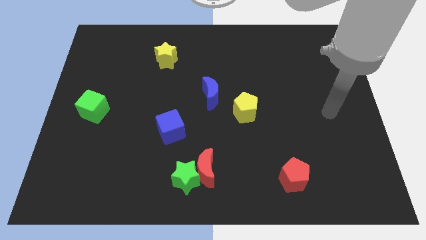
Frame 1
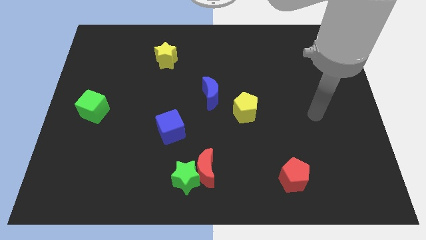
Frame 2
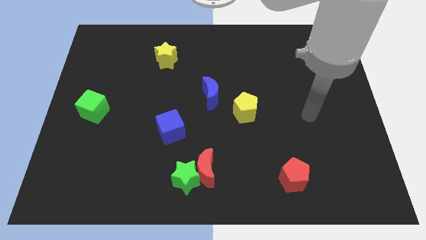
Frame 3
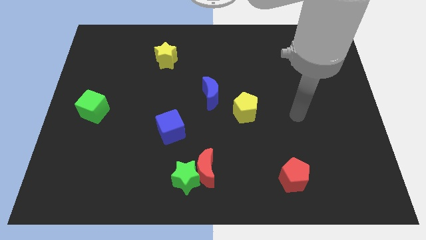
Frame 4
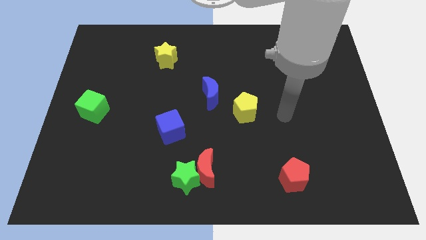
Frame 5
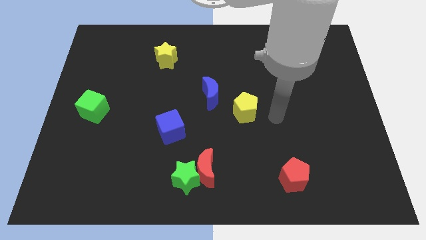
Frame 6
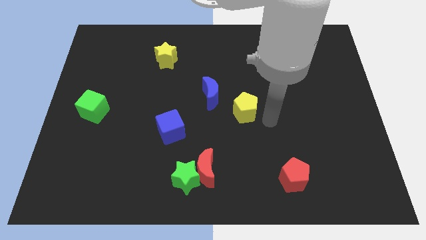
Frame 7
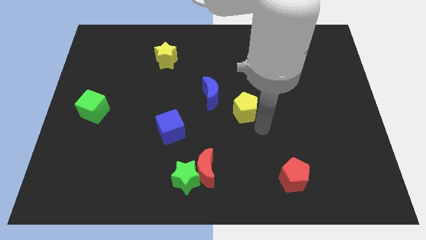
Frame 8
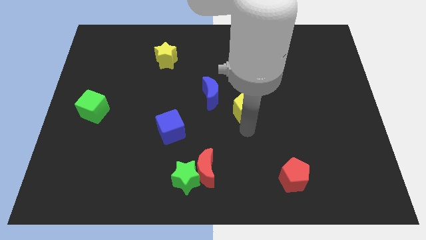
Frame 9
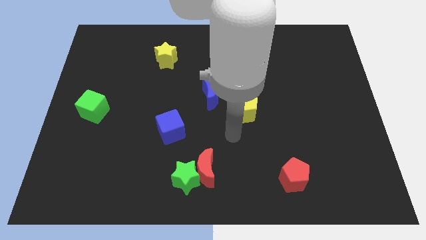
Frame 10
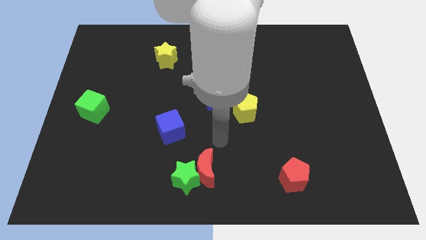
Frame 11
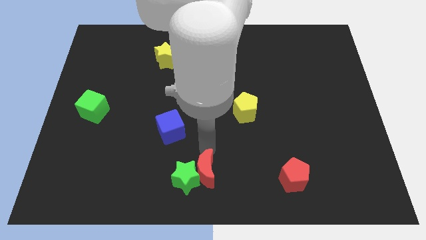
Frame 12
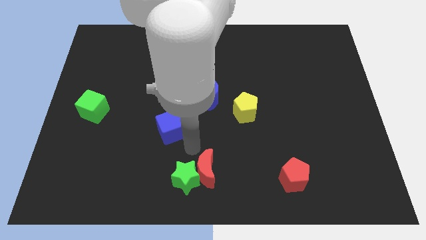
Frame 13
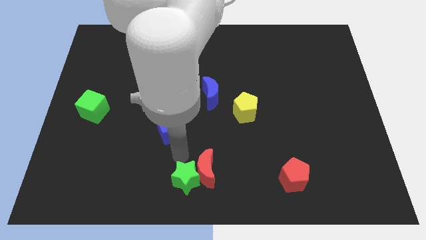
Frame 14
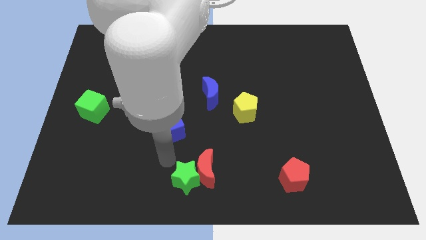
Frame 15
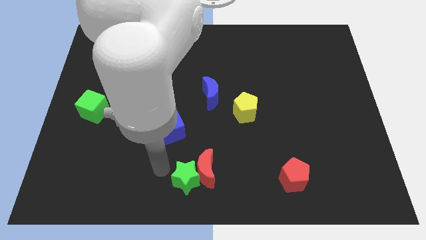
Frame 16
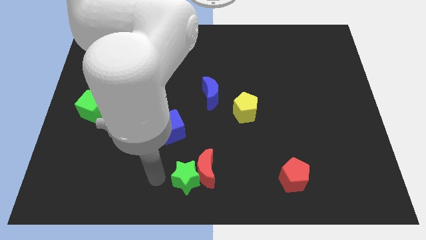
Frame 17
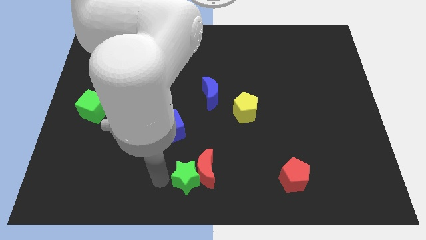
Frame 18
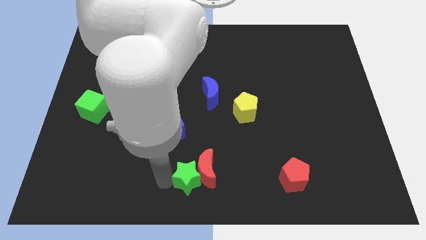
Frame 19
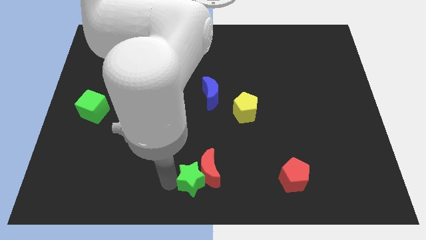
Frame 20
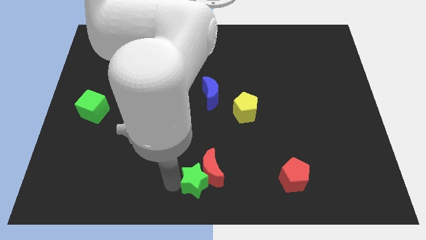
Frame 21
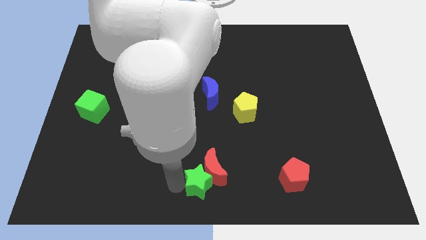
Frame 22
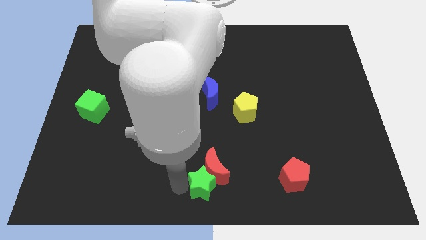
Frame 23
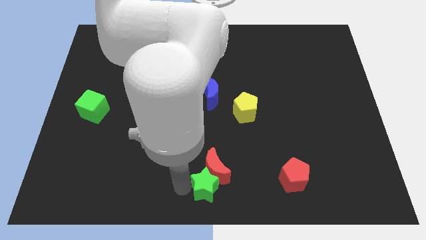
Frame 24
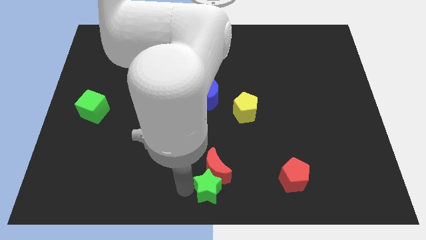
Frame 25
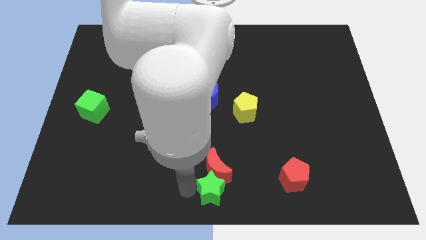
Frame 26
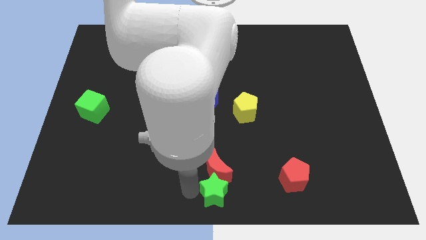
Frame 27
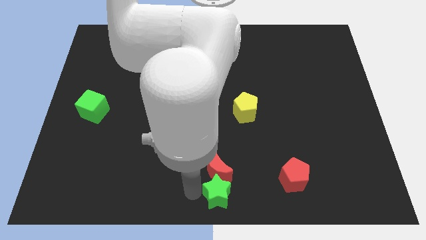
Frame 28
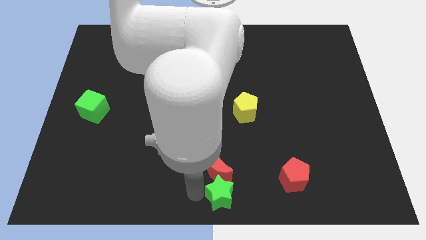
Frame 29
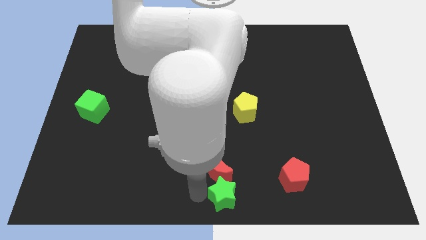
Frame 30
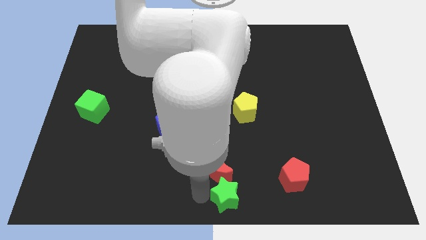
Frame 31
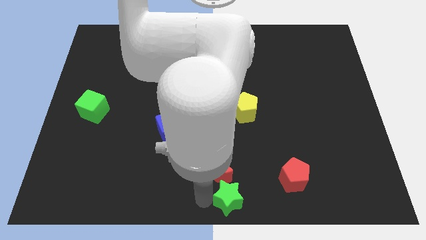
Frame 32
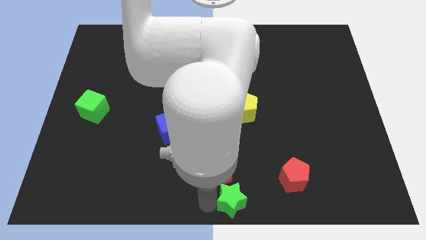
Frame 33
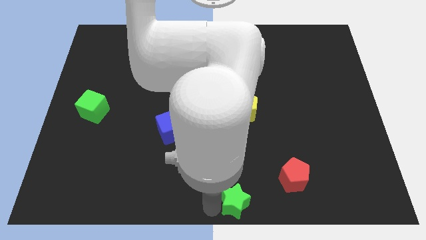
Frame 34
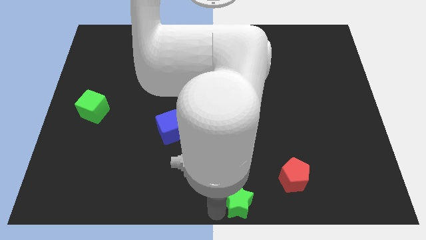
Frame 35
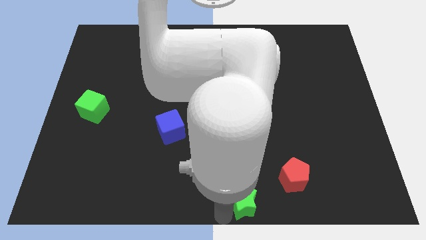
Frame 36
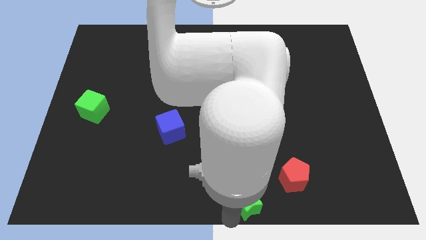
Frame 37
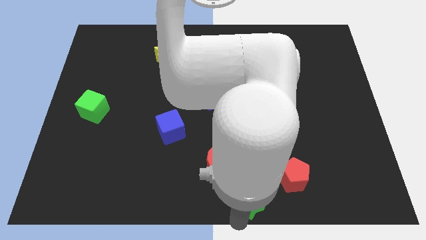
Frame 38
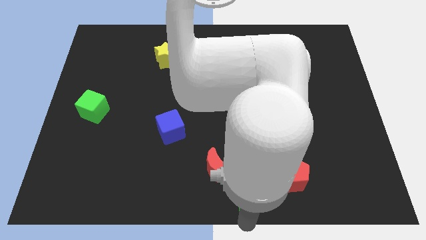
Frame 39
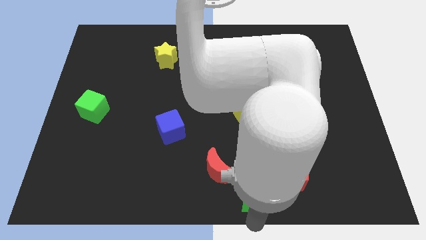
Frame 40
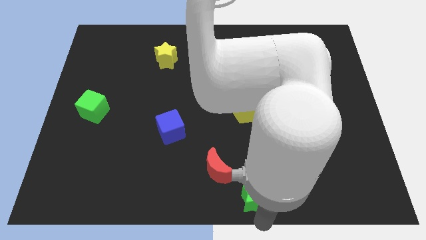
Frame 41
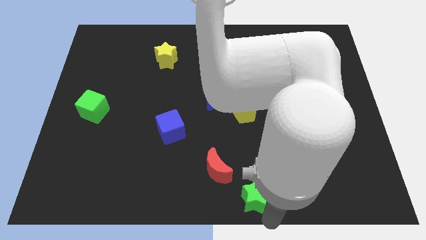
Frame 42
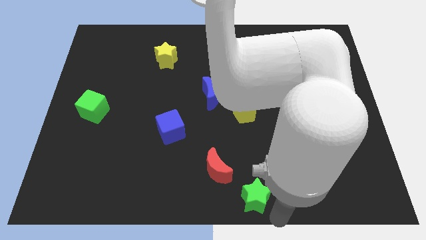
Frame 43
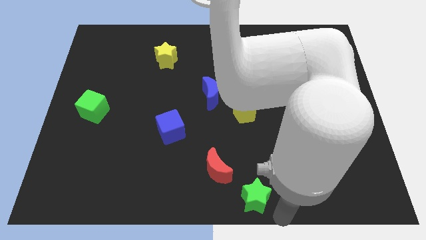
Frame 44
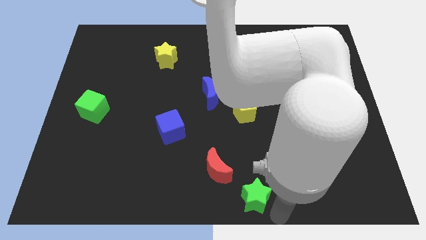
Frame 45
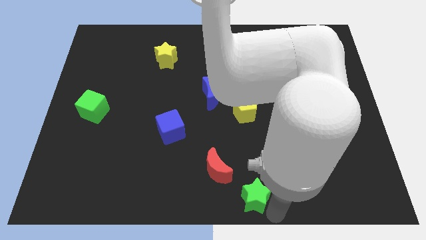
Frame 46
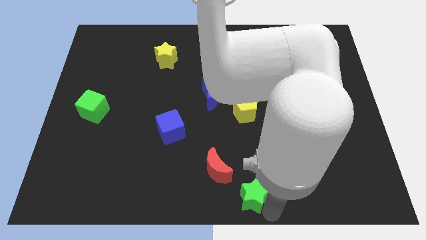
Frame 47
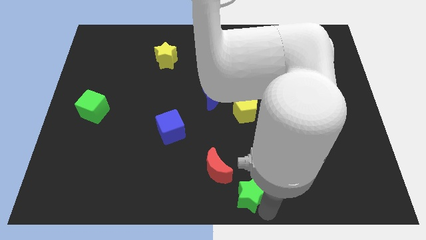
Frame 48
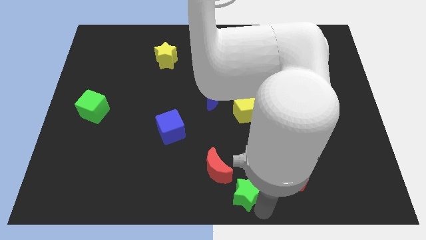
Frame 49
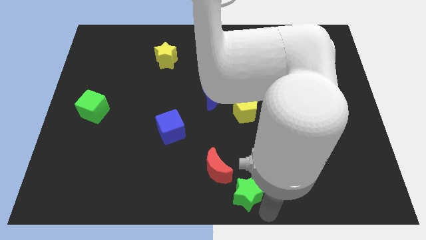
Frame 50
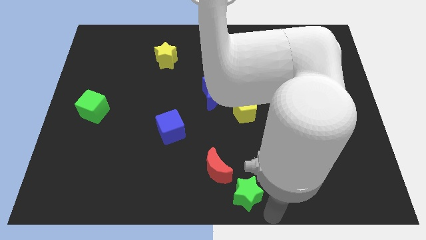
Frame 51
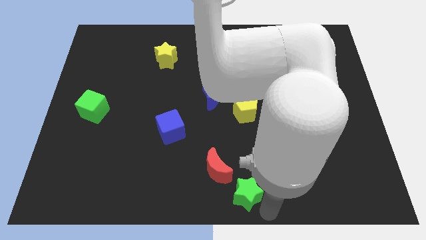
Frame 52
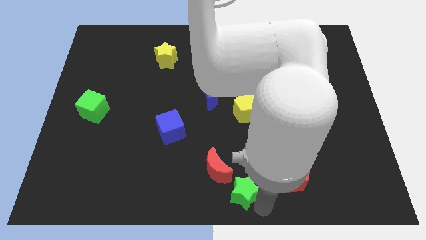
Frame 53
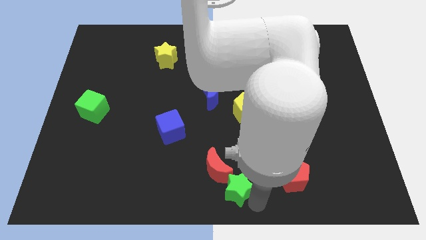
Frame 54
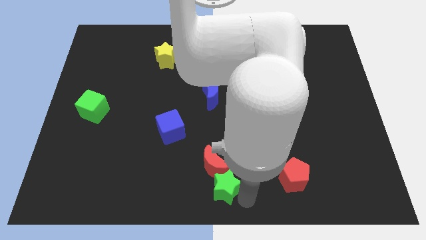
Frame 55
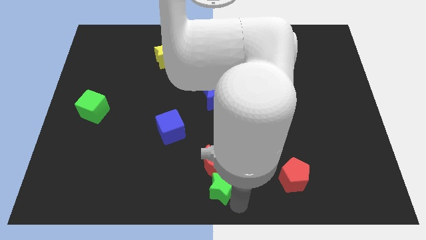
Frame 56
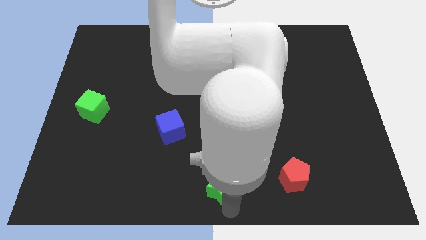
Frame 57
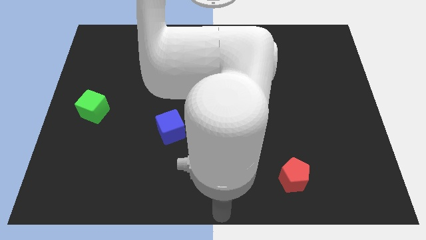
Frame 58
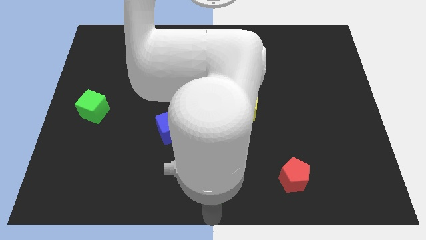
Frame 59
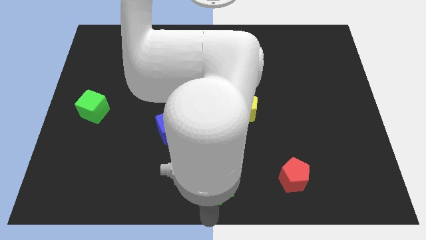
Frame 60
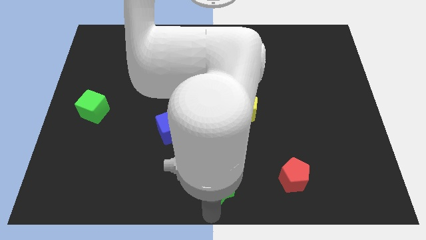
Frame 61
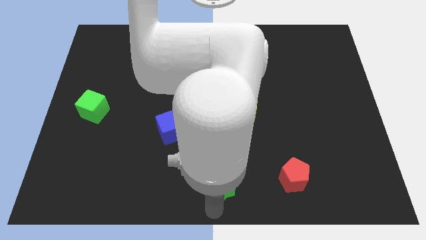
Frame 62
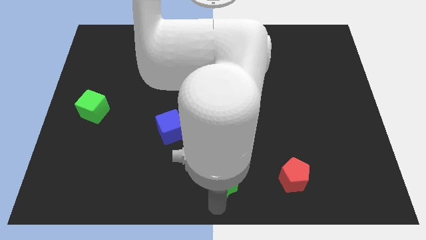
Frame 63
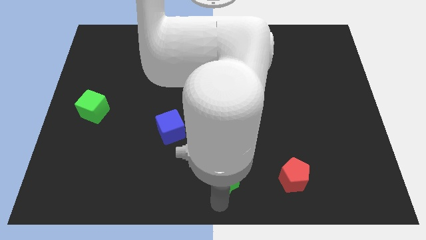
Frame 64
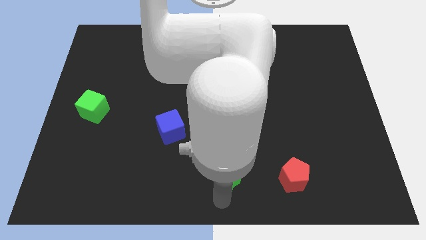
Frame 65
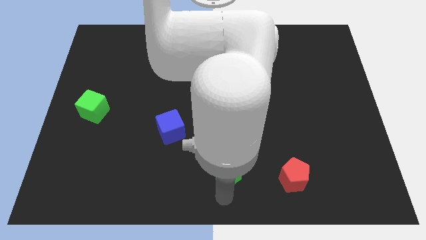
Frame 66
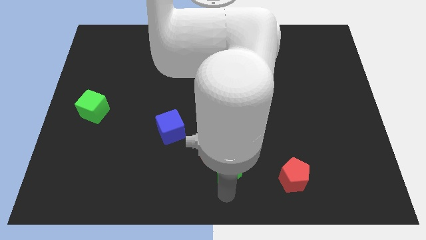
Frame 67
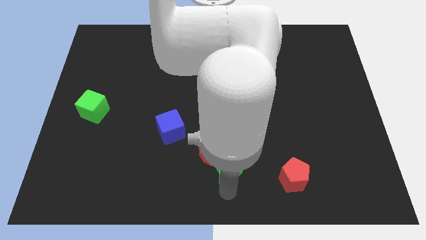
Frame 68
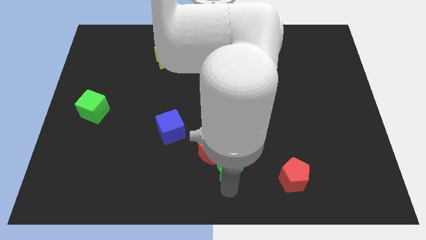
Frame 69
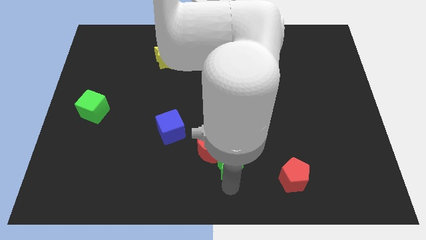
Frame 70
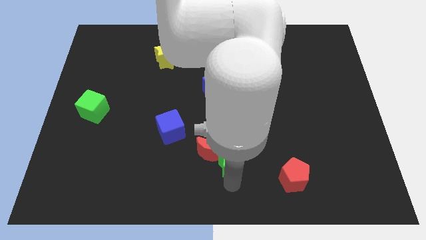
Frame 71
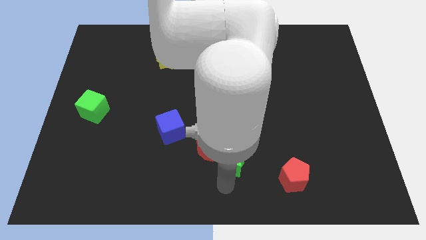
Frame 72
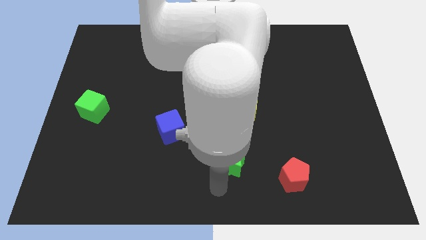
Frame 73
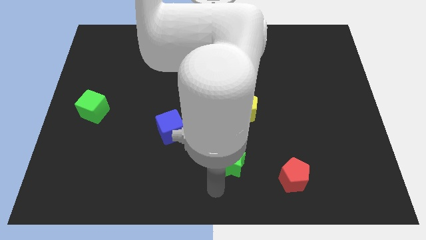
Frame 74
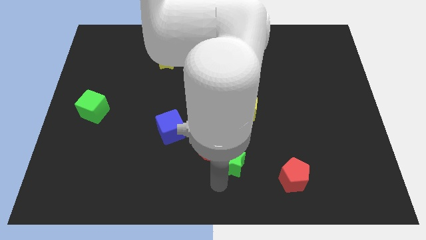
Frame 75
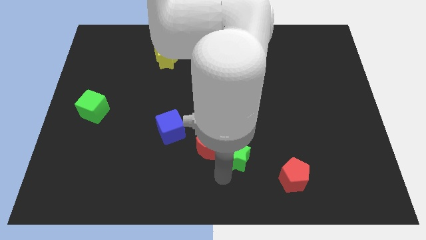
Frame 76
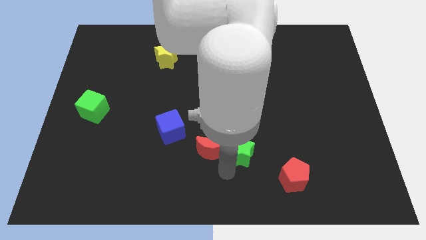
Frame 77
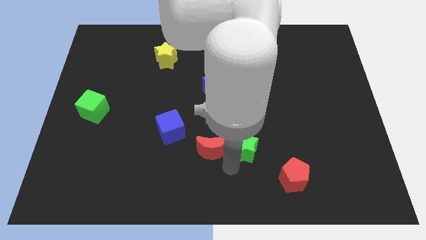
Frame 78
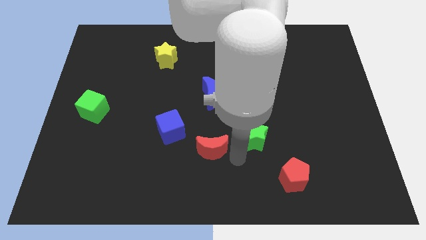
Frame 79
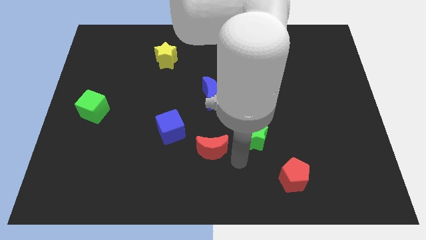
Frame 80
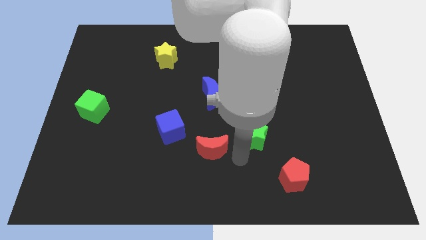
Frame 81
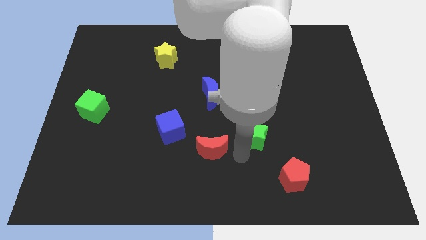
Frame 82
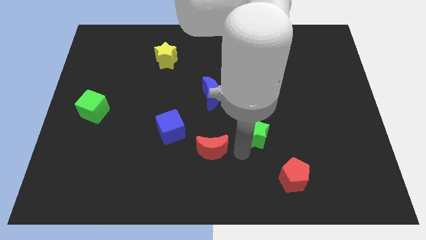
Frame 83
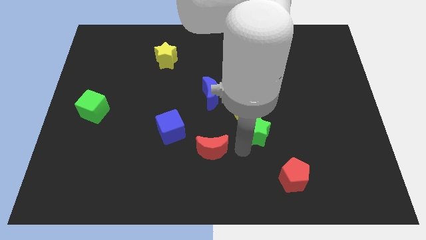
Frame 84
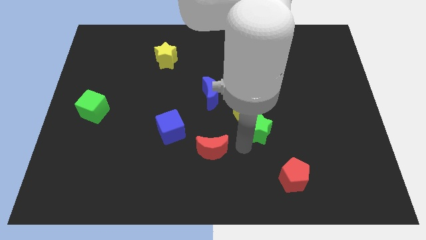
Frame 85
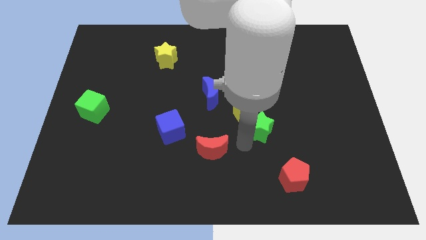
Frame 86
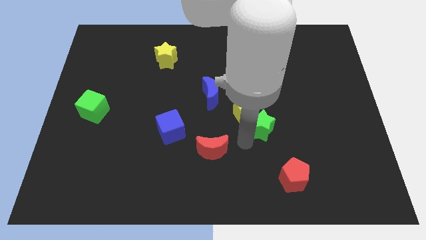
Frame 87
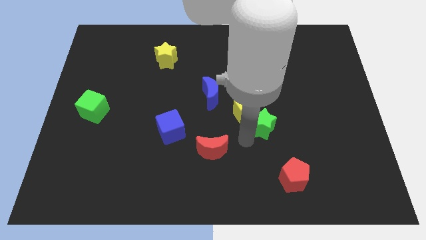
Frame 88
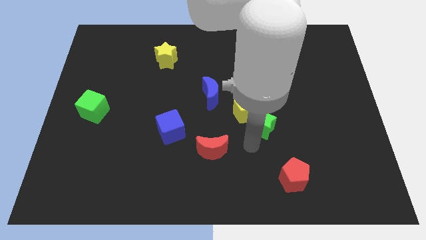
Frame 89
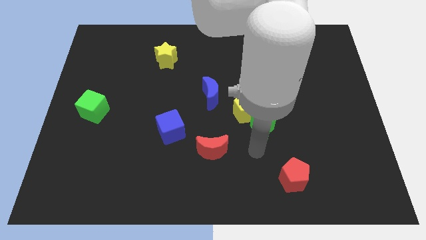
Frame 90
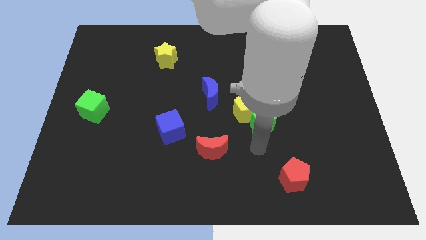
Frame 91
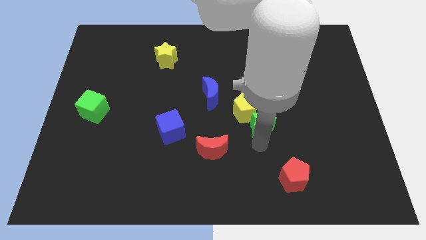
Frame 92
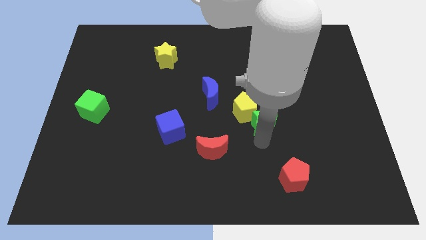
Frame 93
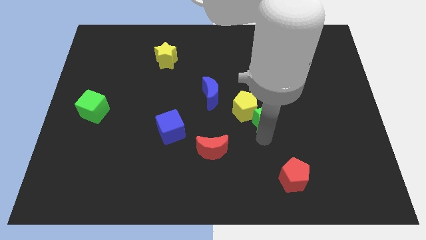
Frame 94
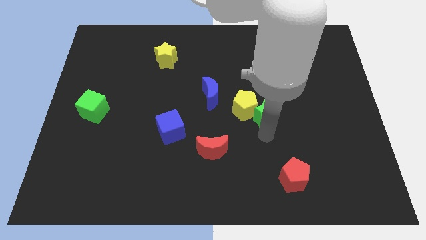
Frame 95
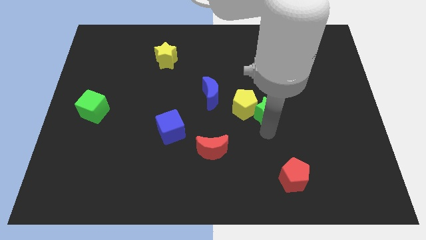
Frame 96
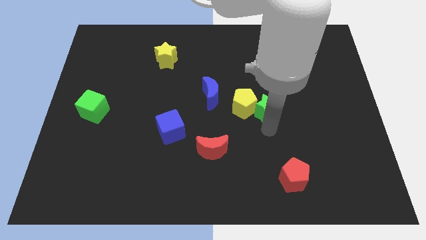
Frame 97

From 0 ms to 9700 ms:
slide the green star to the top right side of the yellow pentagon
